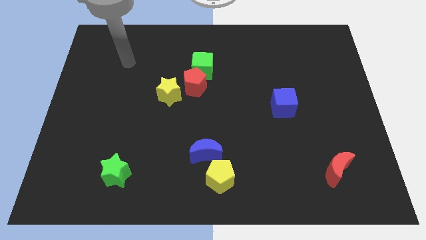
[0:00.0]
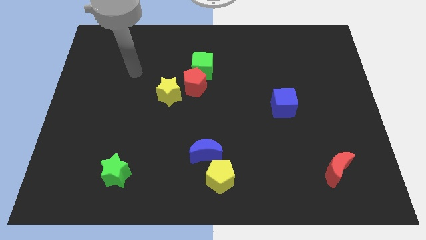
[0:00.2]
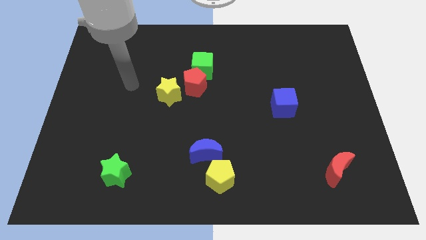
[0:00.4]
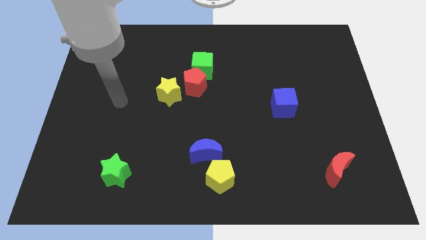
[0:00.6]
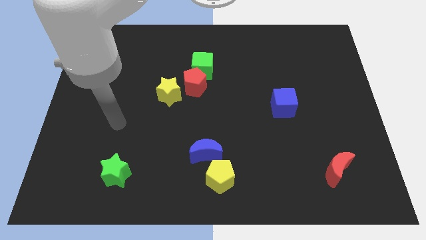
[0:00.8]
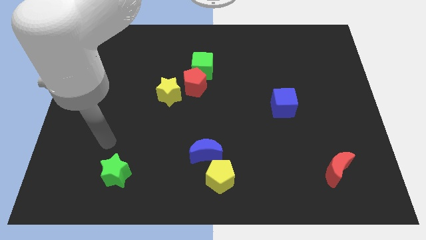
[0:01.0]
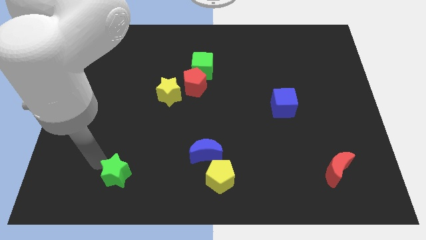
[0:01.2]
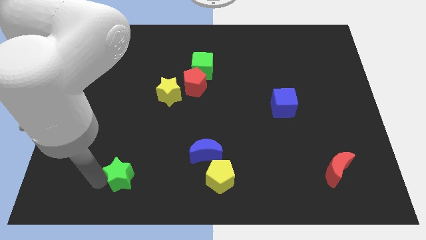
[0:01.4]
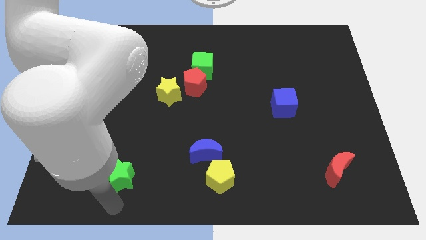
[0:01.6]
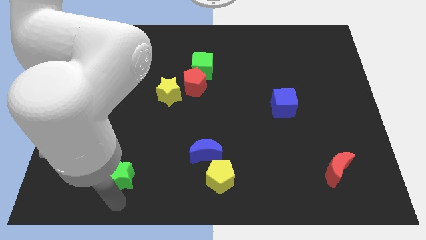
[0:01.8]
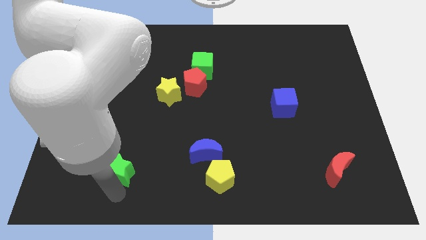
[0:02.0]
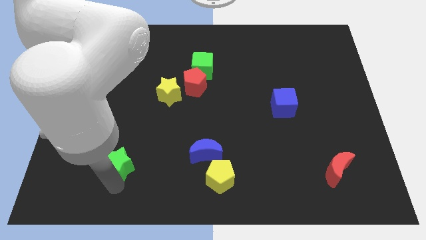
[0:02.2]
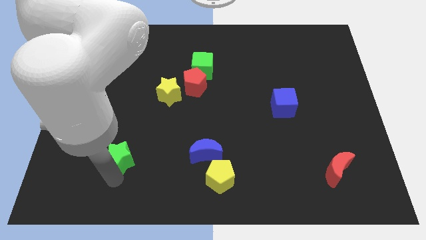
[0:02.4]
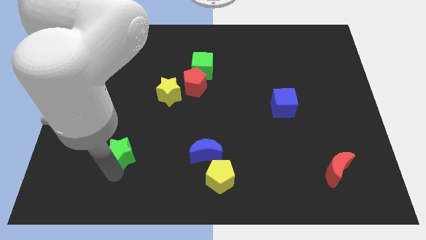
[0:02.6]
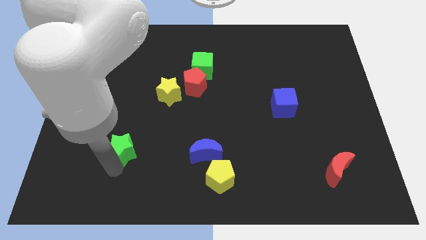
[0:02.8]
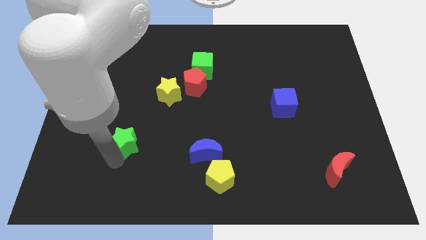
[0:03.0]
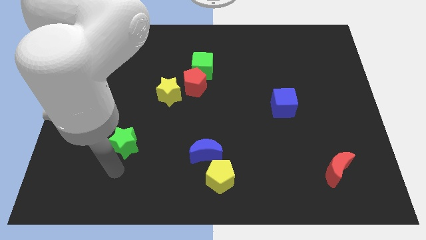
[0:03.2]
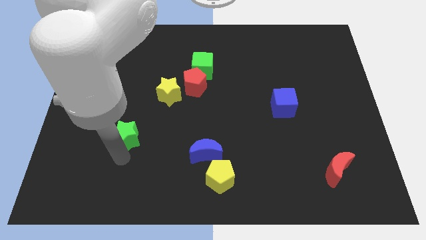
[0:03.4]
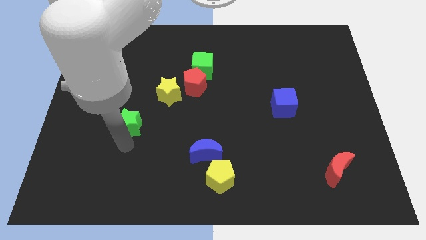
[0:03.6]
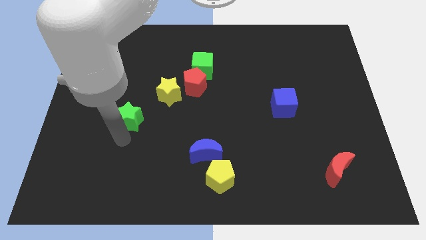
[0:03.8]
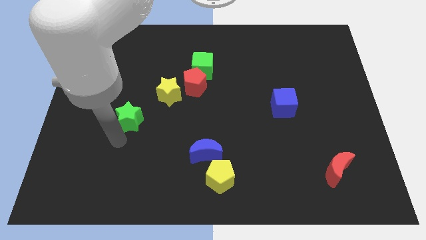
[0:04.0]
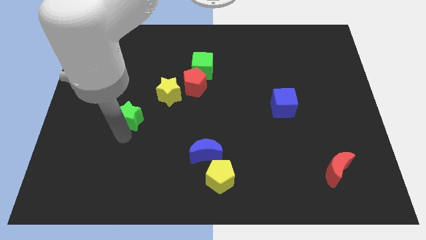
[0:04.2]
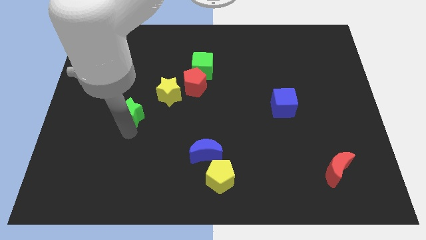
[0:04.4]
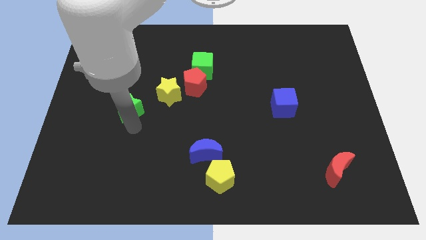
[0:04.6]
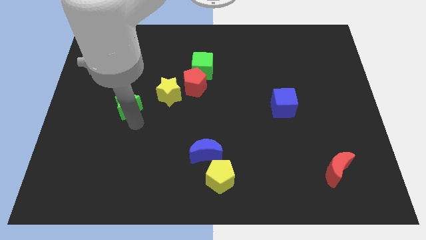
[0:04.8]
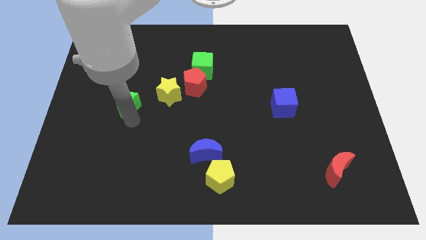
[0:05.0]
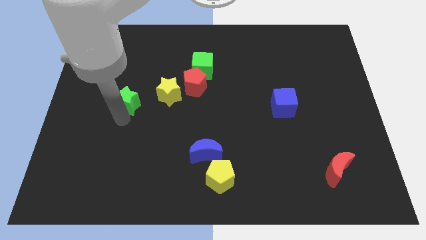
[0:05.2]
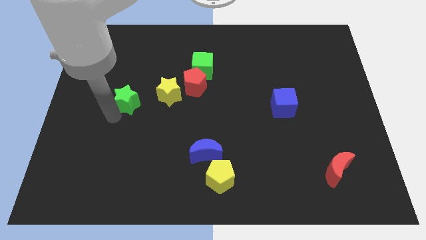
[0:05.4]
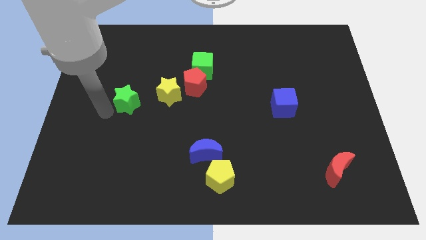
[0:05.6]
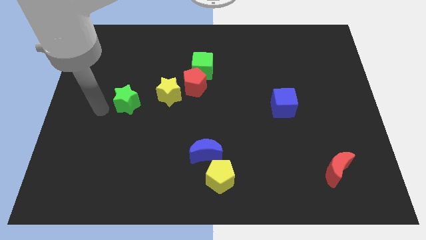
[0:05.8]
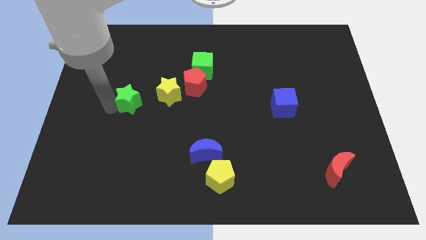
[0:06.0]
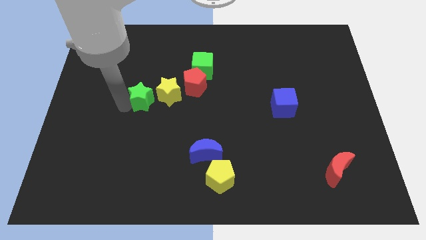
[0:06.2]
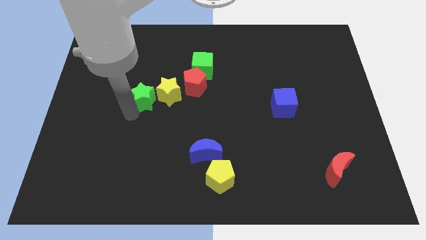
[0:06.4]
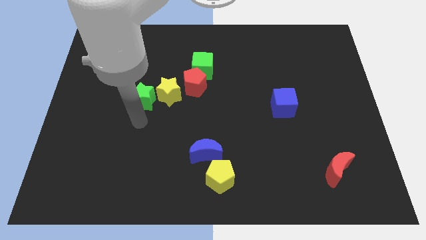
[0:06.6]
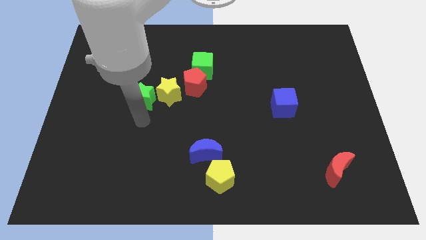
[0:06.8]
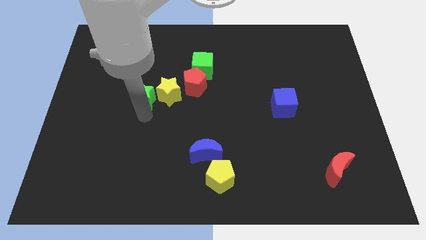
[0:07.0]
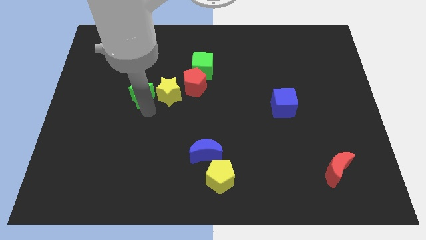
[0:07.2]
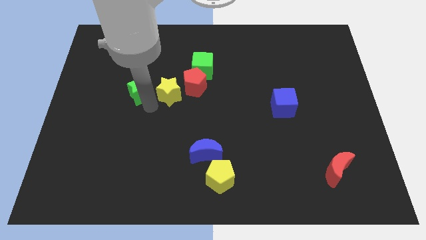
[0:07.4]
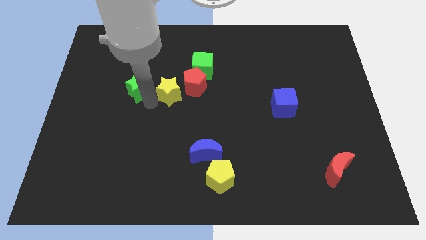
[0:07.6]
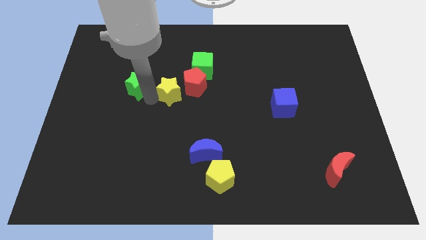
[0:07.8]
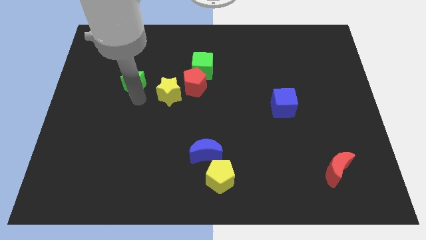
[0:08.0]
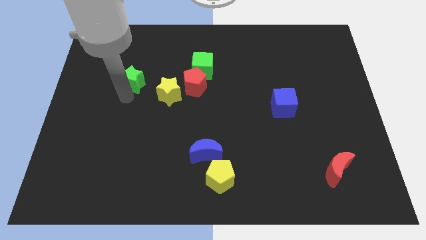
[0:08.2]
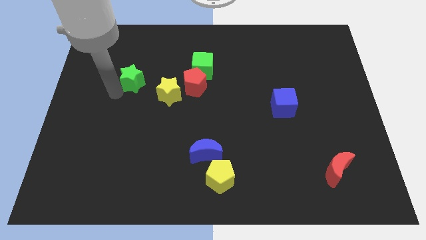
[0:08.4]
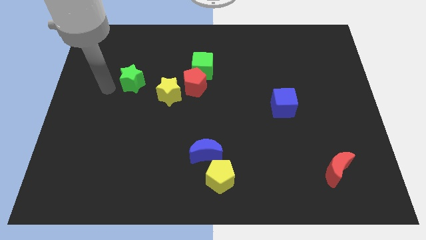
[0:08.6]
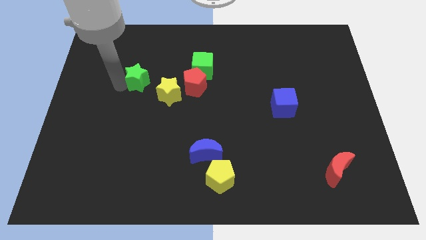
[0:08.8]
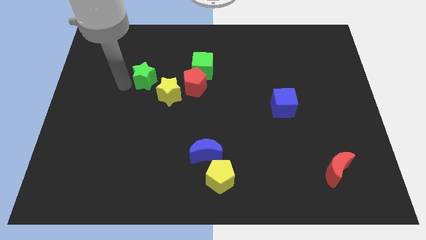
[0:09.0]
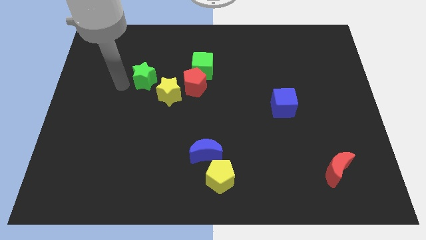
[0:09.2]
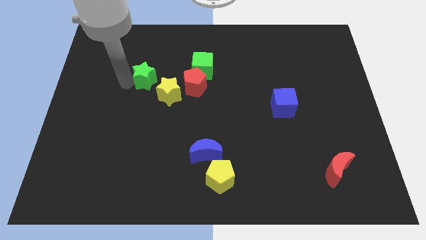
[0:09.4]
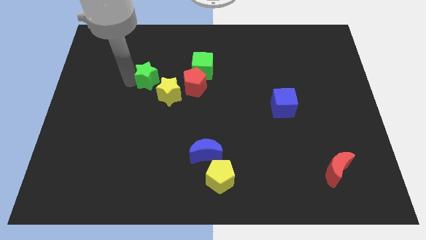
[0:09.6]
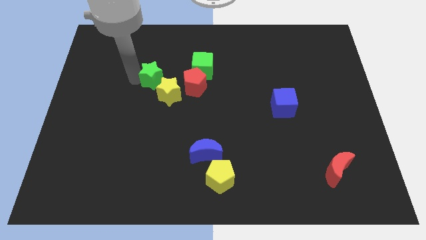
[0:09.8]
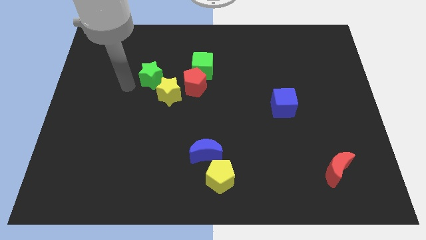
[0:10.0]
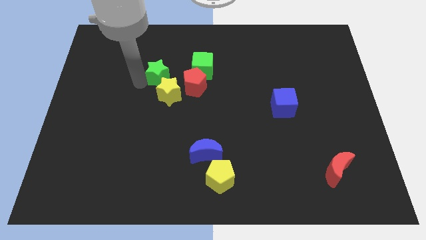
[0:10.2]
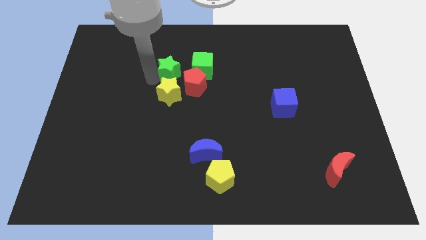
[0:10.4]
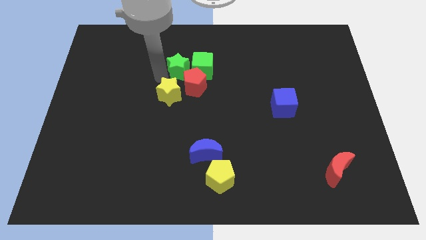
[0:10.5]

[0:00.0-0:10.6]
slide the green star next to the green cube
